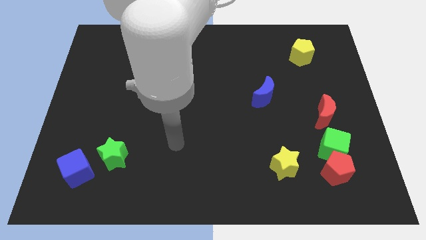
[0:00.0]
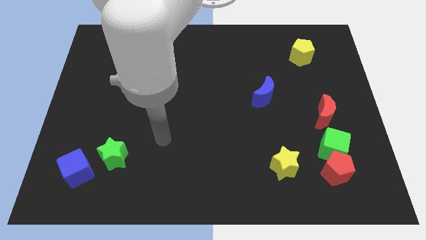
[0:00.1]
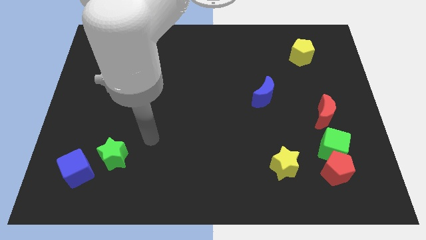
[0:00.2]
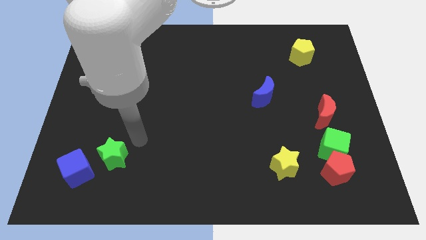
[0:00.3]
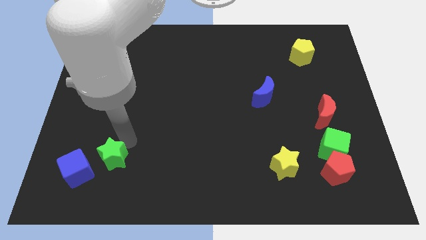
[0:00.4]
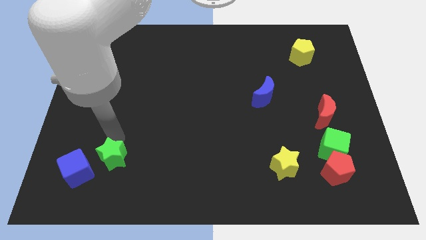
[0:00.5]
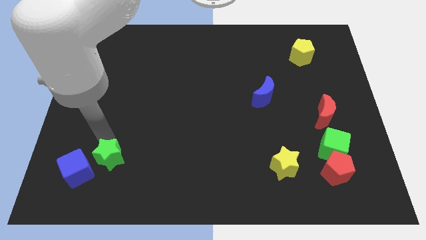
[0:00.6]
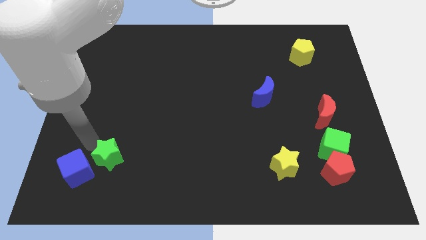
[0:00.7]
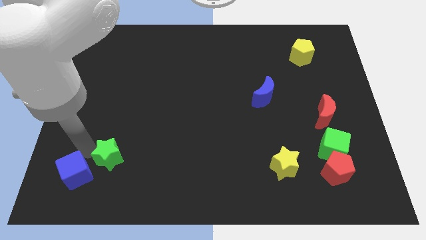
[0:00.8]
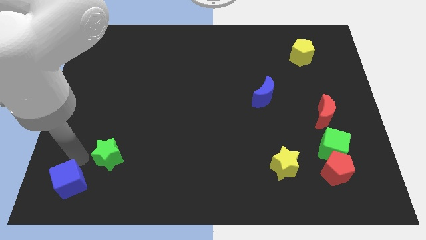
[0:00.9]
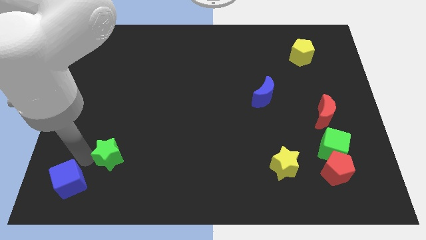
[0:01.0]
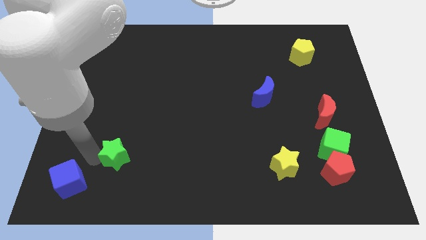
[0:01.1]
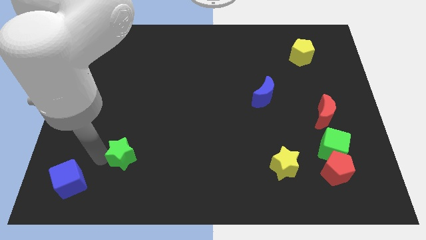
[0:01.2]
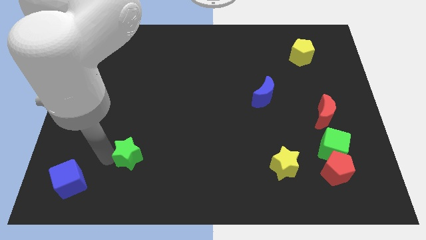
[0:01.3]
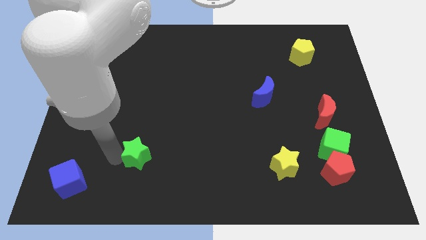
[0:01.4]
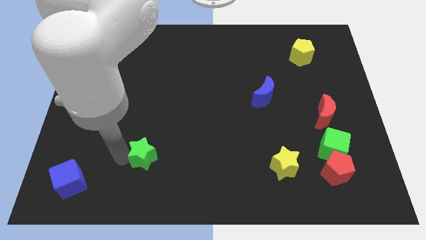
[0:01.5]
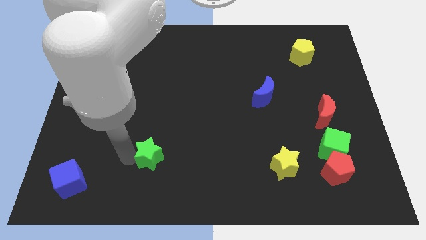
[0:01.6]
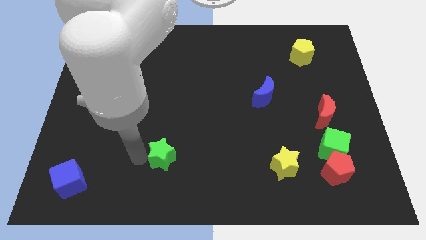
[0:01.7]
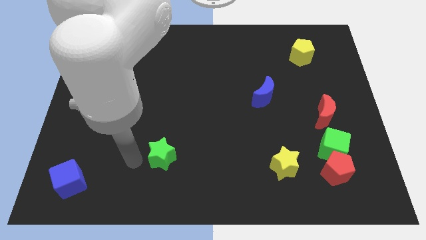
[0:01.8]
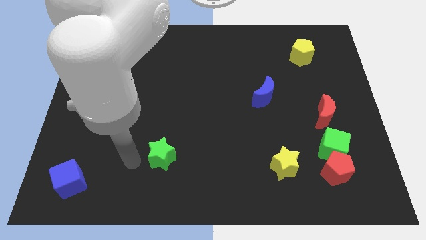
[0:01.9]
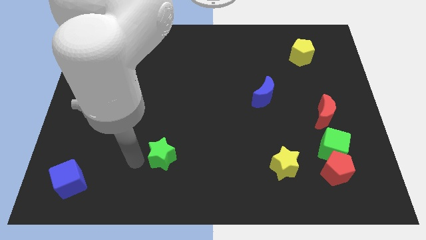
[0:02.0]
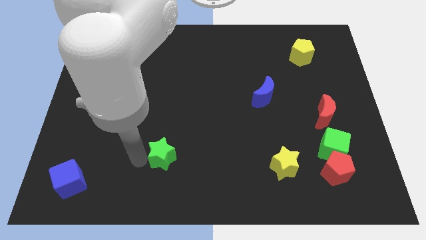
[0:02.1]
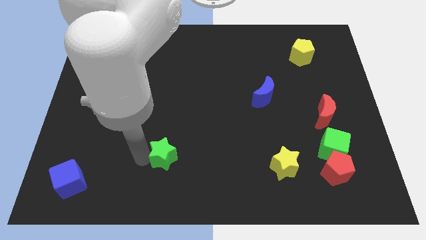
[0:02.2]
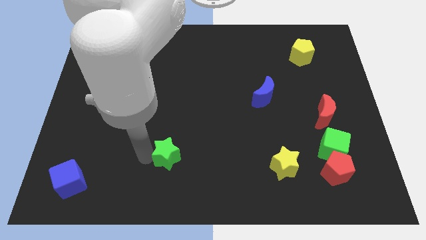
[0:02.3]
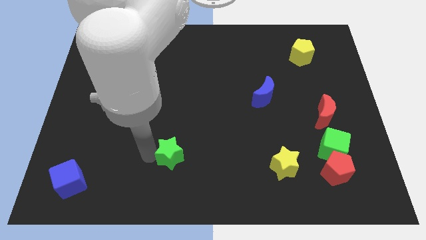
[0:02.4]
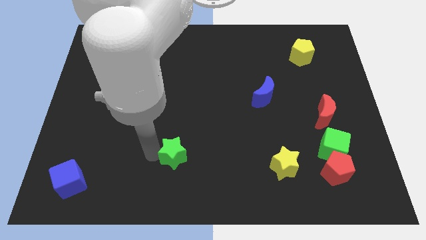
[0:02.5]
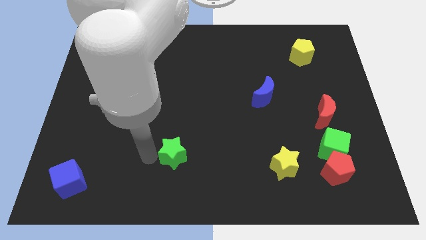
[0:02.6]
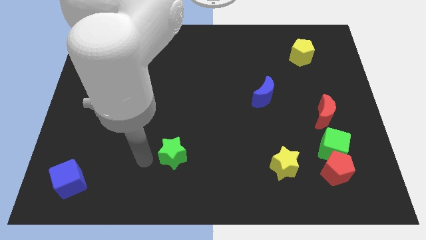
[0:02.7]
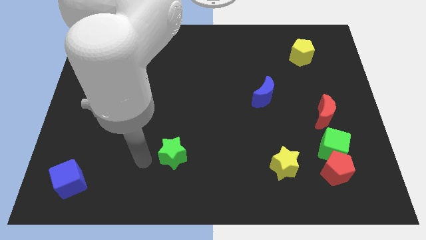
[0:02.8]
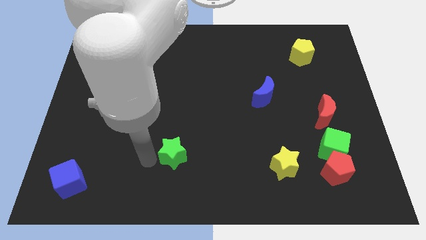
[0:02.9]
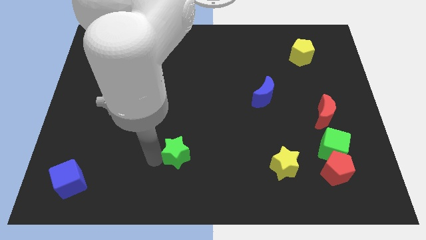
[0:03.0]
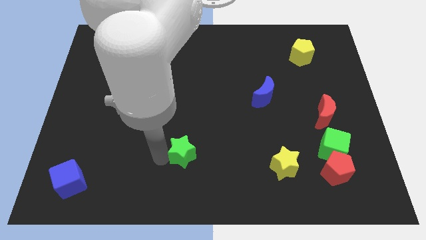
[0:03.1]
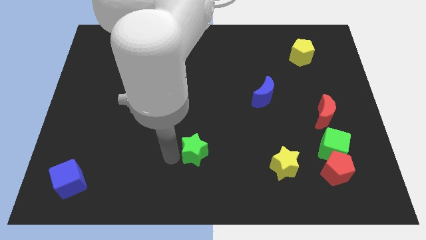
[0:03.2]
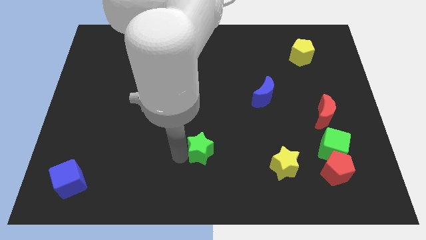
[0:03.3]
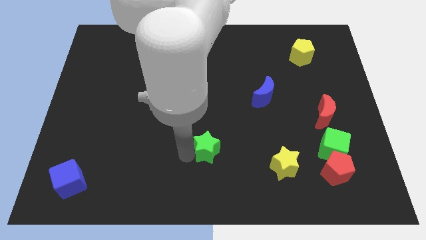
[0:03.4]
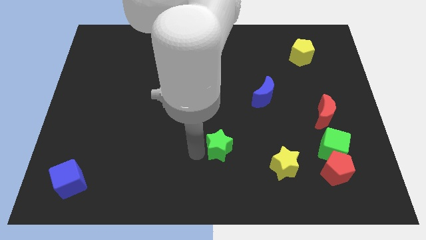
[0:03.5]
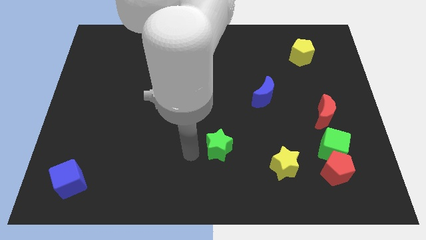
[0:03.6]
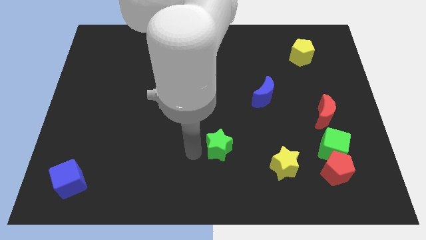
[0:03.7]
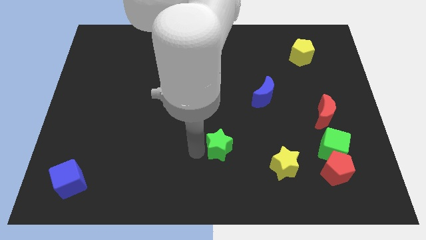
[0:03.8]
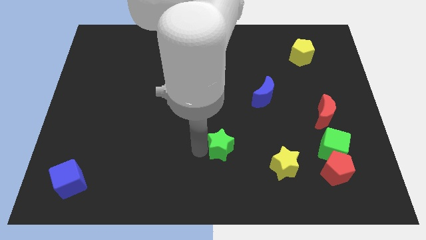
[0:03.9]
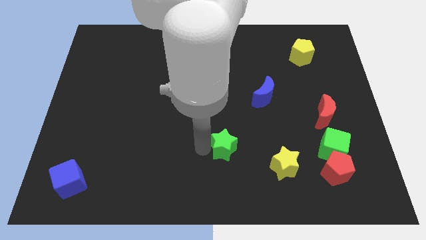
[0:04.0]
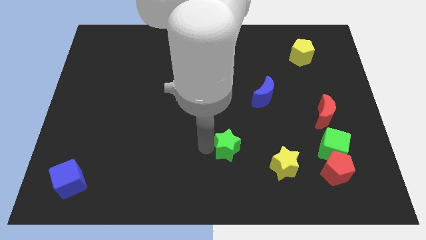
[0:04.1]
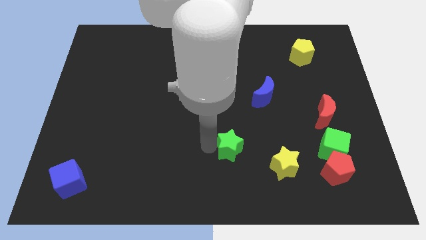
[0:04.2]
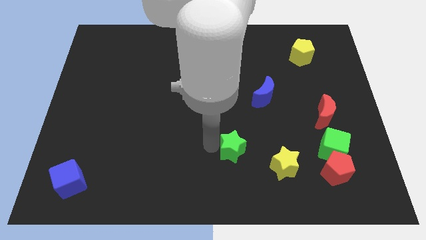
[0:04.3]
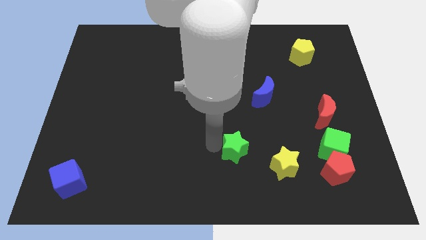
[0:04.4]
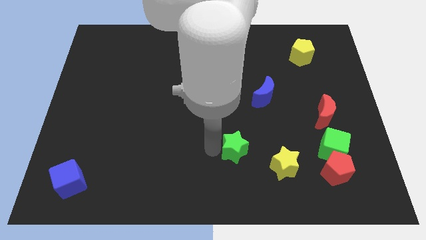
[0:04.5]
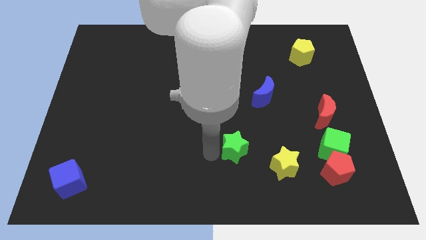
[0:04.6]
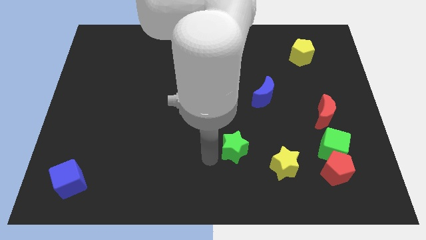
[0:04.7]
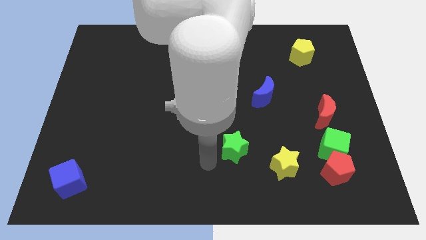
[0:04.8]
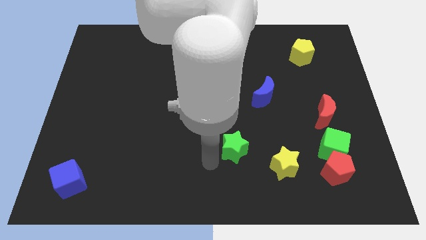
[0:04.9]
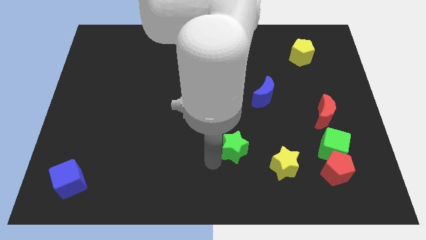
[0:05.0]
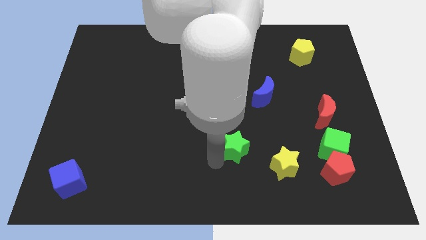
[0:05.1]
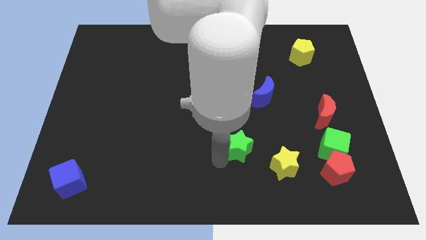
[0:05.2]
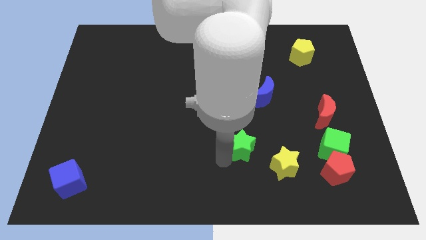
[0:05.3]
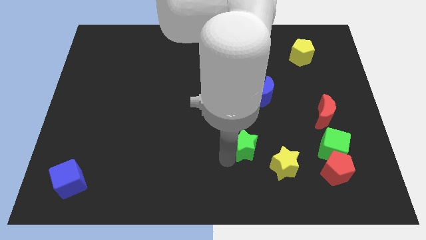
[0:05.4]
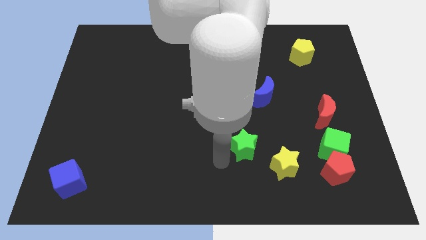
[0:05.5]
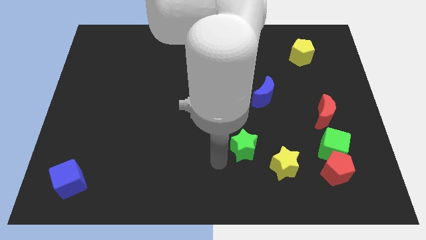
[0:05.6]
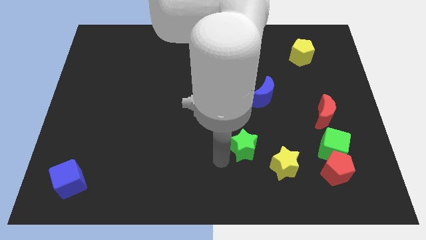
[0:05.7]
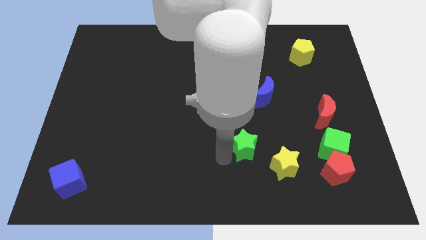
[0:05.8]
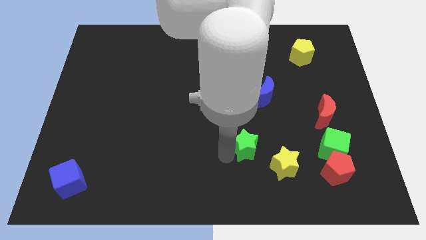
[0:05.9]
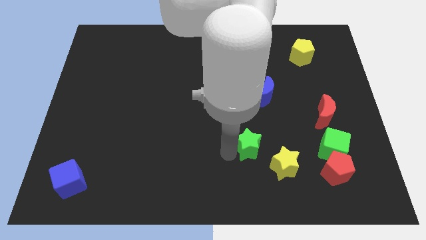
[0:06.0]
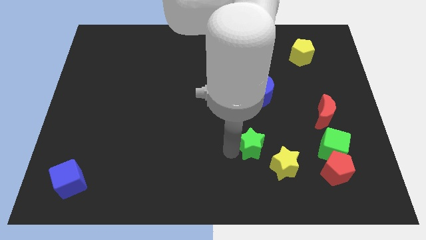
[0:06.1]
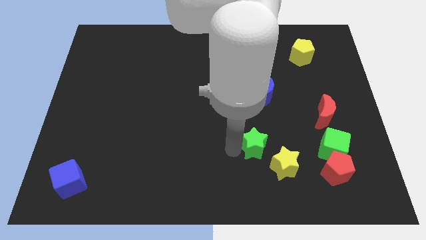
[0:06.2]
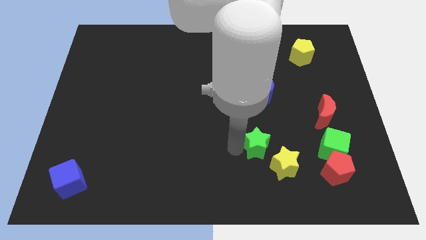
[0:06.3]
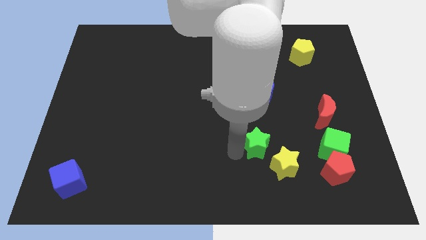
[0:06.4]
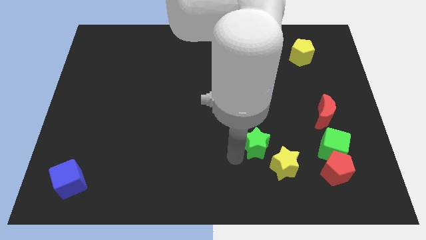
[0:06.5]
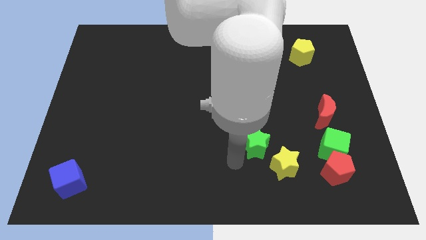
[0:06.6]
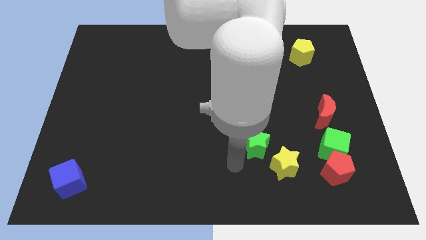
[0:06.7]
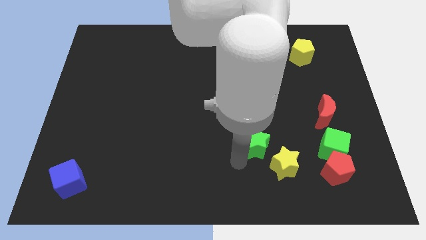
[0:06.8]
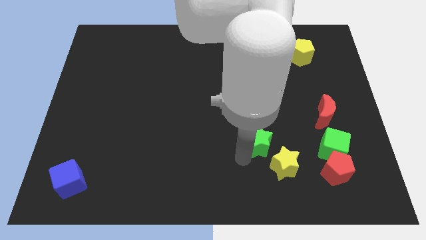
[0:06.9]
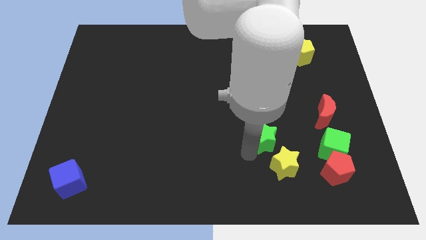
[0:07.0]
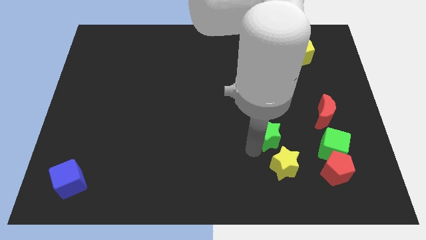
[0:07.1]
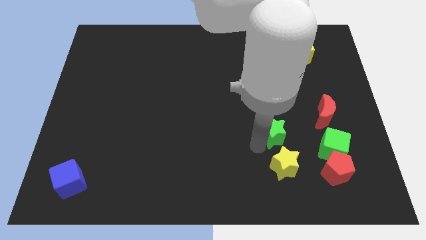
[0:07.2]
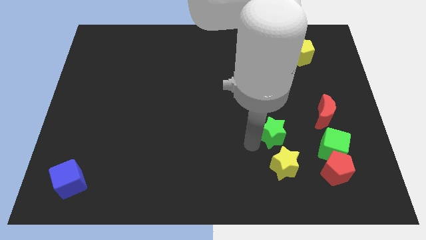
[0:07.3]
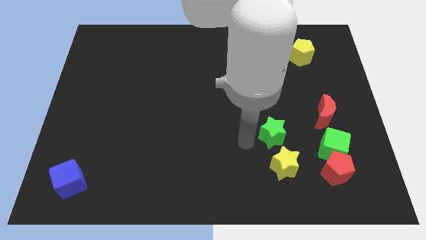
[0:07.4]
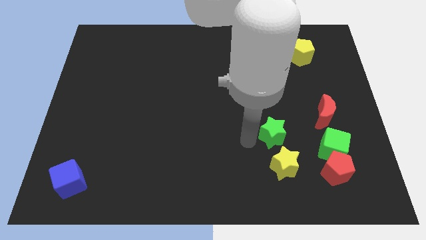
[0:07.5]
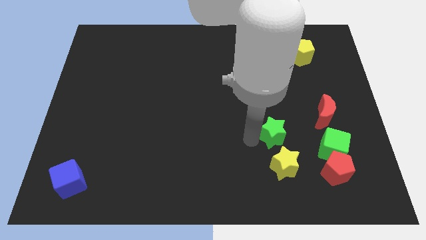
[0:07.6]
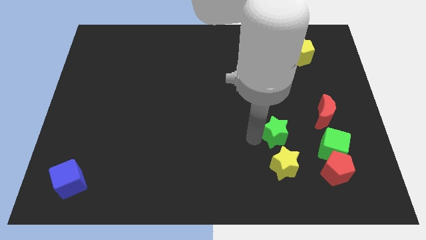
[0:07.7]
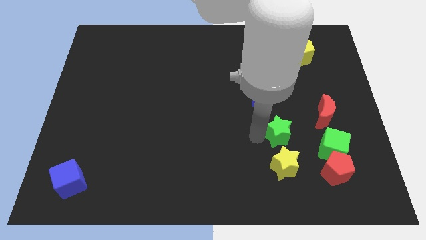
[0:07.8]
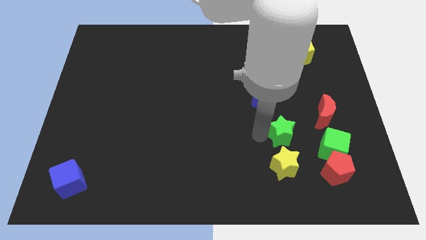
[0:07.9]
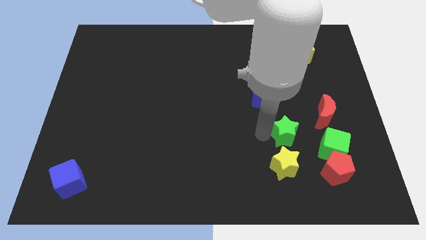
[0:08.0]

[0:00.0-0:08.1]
slide the green star diagonally up and to the left of the green cube
